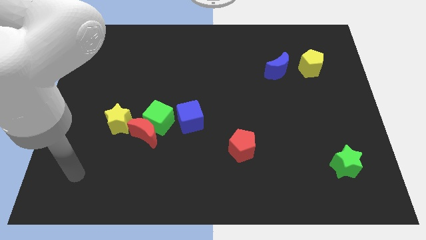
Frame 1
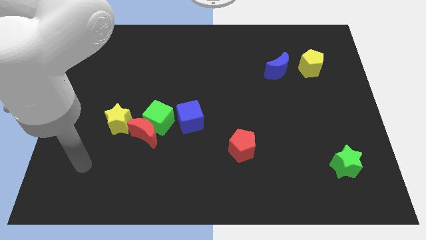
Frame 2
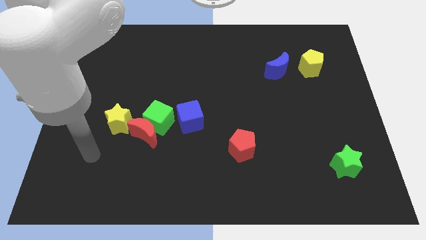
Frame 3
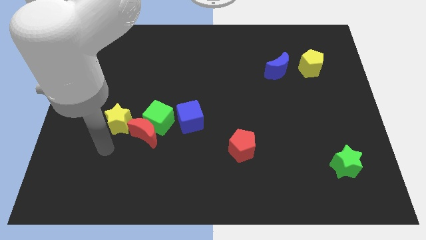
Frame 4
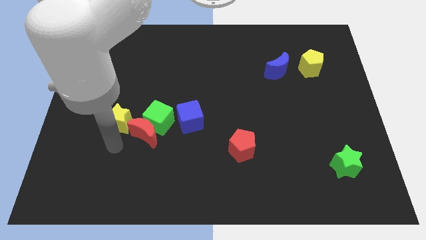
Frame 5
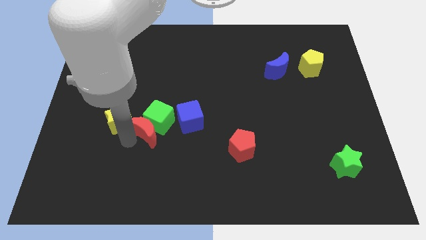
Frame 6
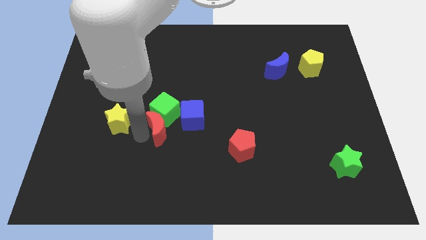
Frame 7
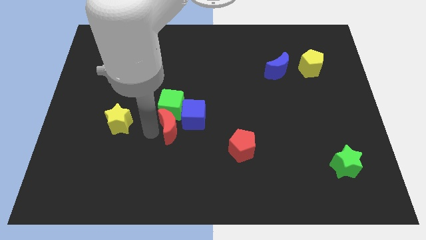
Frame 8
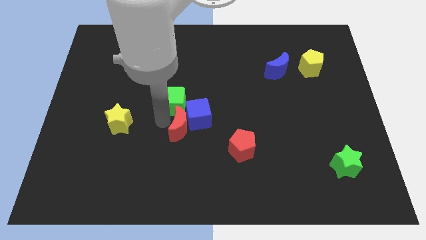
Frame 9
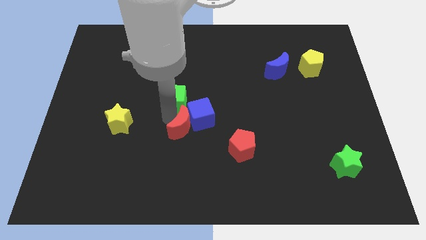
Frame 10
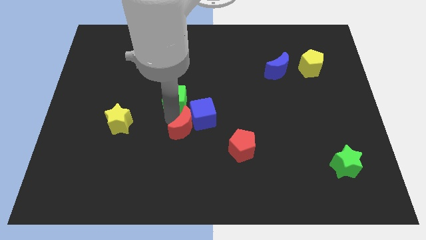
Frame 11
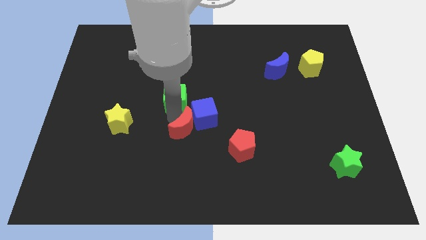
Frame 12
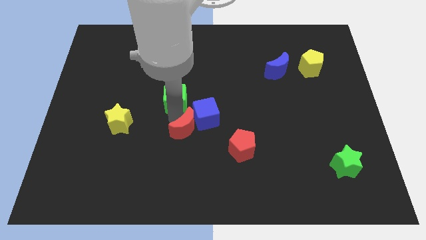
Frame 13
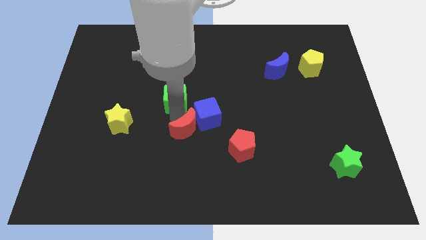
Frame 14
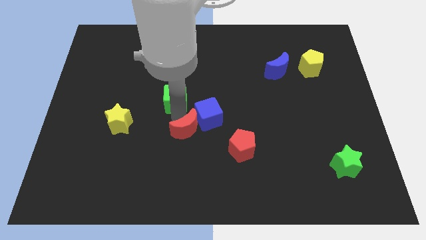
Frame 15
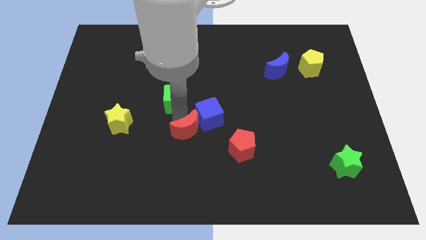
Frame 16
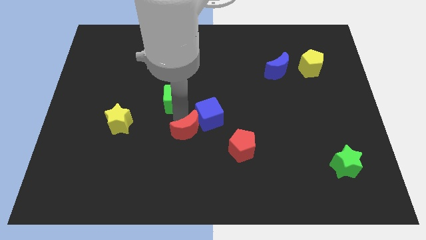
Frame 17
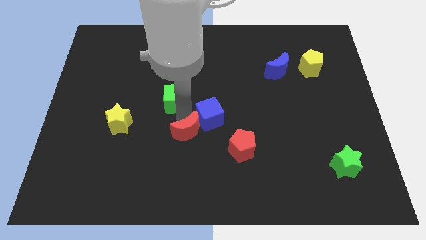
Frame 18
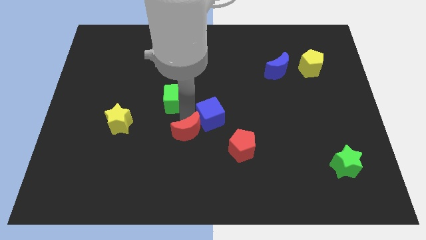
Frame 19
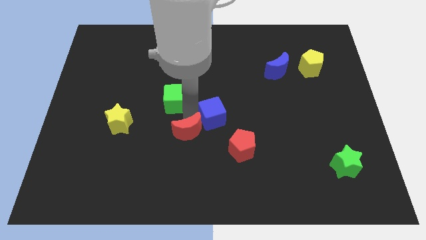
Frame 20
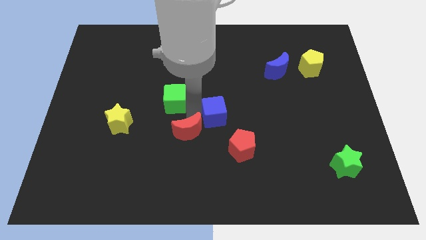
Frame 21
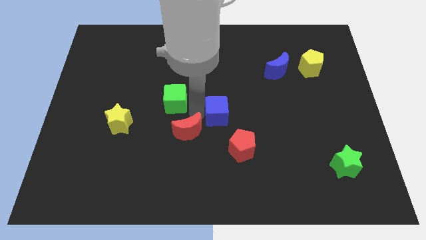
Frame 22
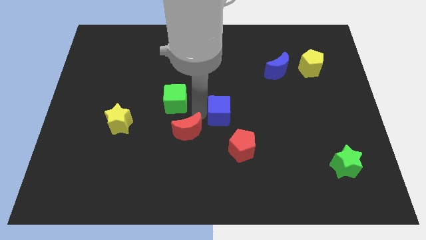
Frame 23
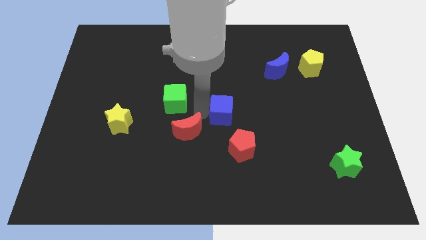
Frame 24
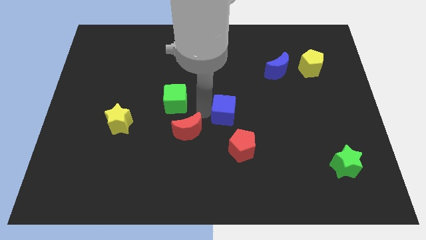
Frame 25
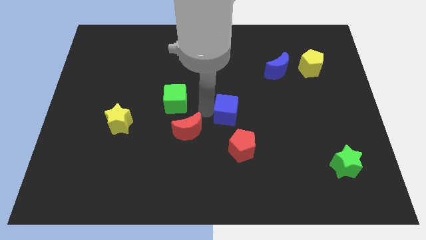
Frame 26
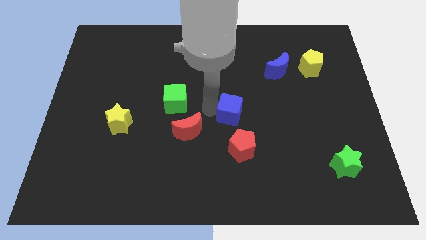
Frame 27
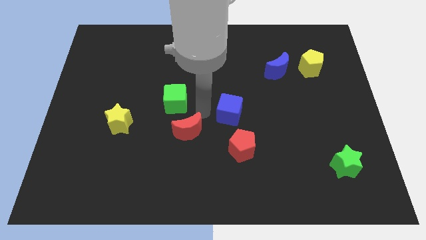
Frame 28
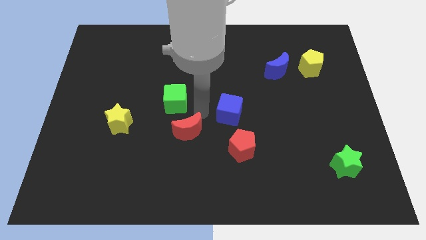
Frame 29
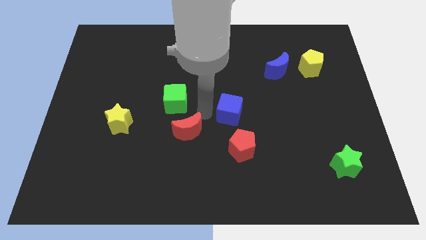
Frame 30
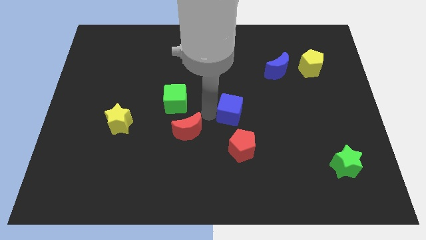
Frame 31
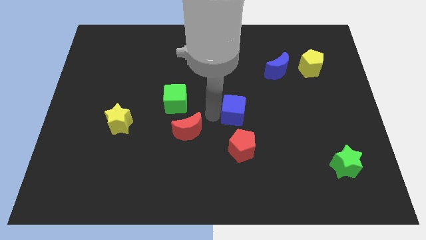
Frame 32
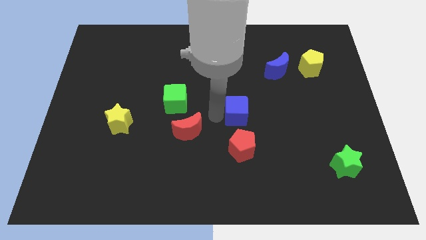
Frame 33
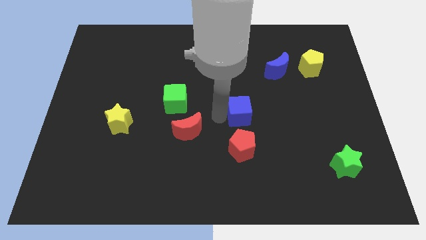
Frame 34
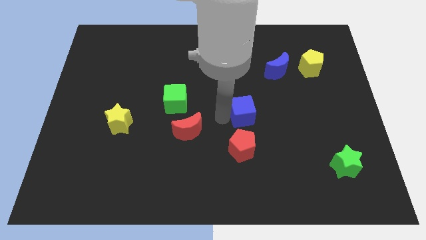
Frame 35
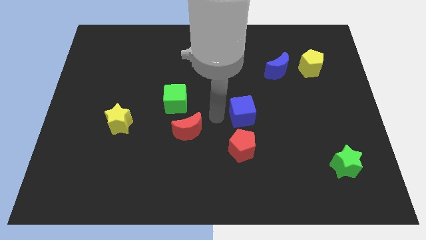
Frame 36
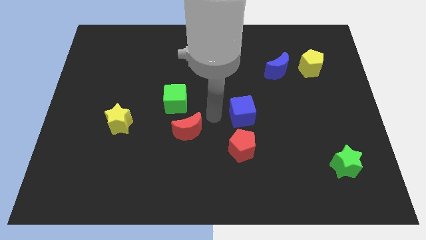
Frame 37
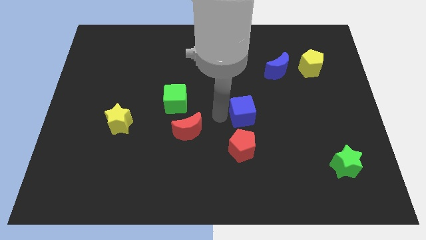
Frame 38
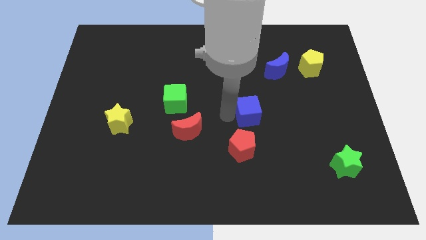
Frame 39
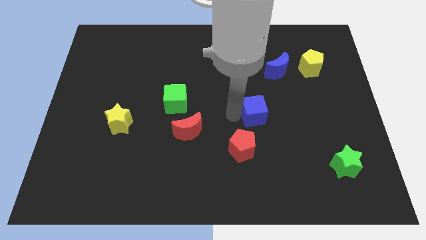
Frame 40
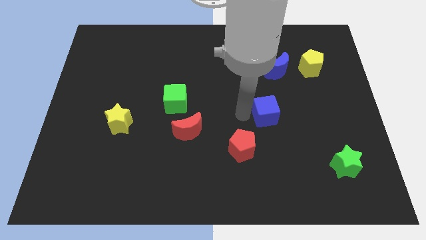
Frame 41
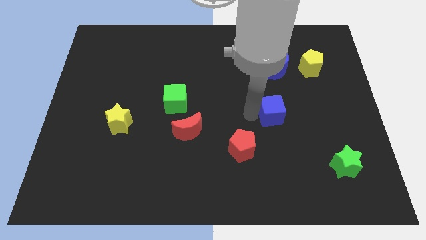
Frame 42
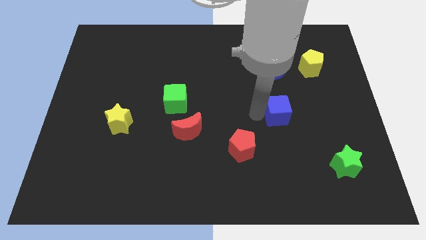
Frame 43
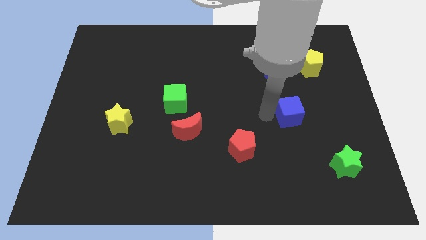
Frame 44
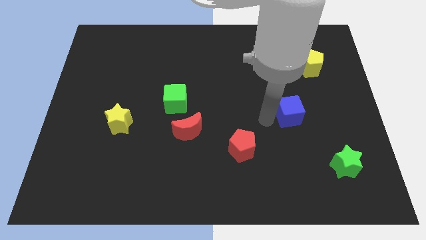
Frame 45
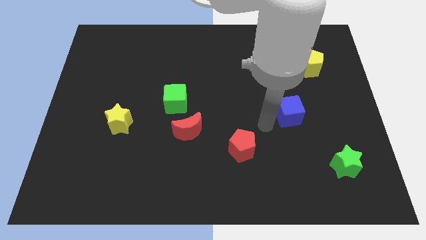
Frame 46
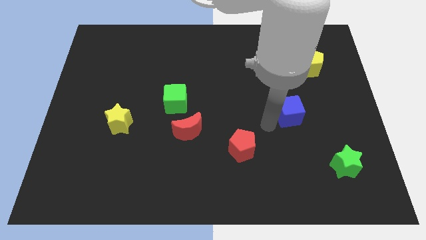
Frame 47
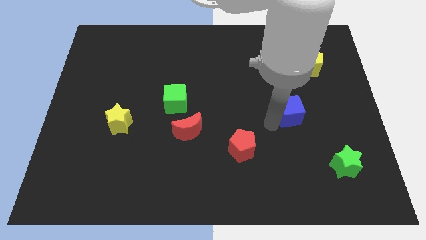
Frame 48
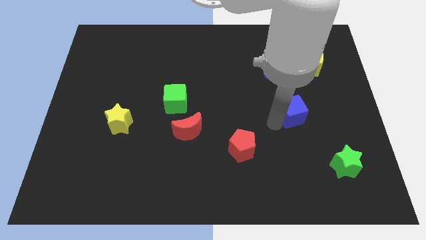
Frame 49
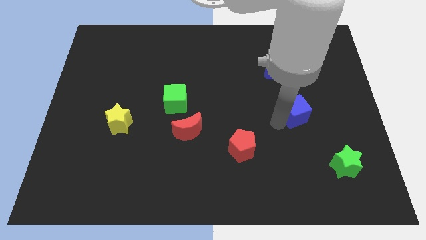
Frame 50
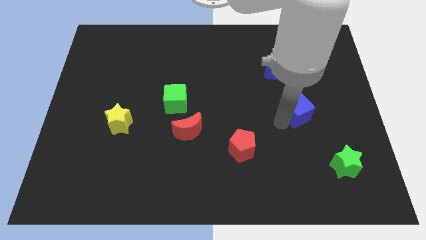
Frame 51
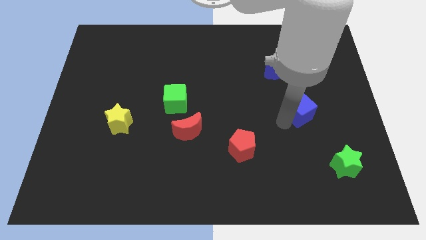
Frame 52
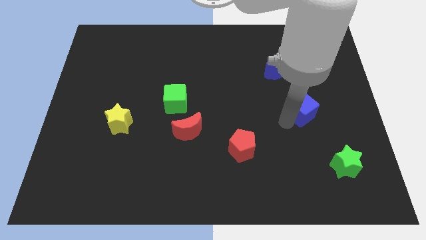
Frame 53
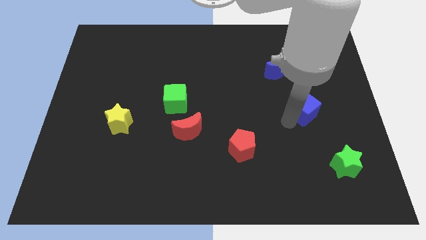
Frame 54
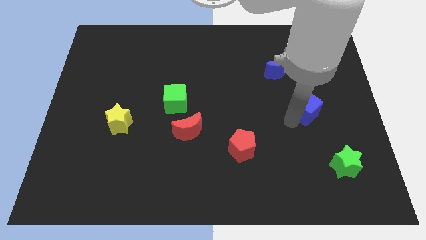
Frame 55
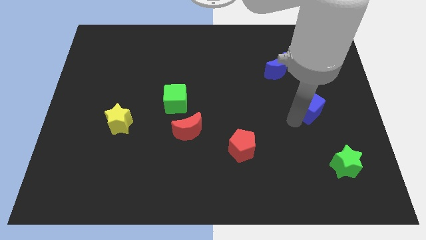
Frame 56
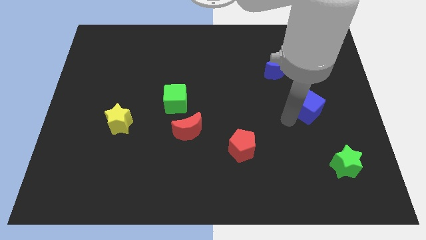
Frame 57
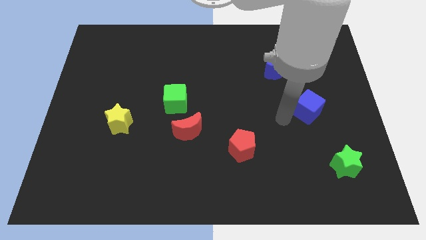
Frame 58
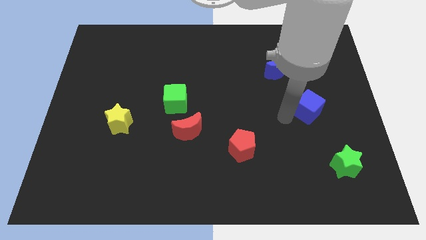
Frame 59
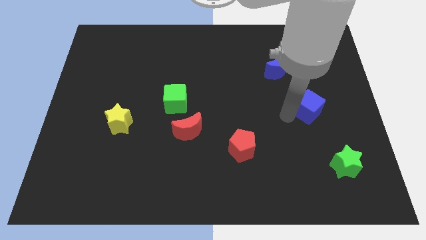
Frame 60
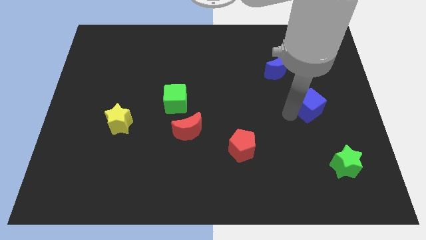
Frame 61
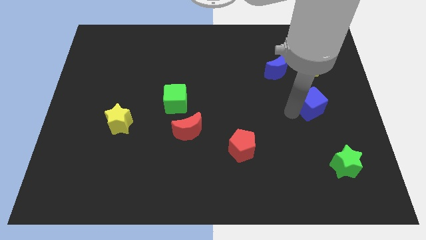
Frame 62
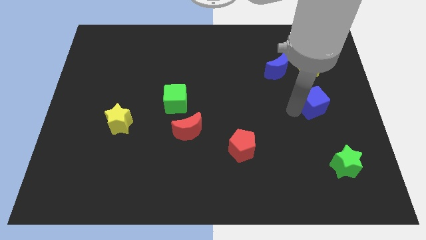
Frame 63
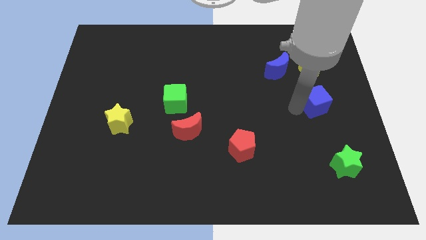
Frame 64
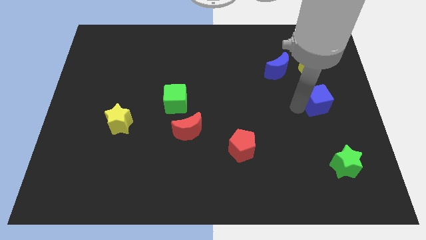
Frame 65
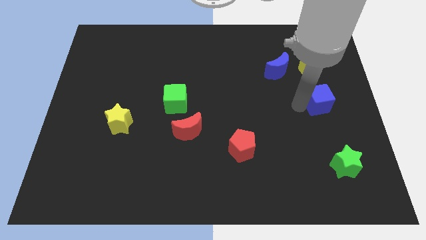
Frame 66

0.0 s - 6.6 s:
slide the blue cube to the right side
